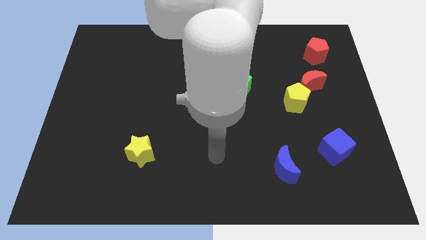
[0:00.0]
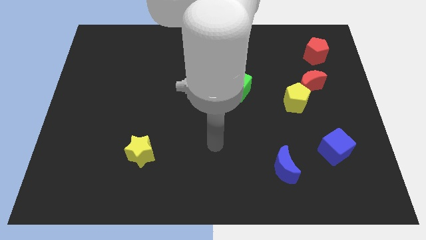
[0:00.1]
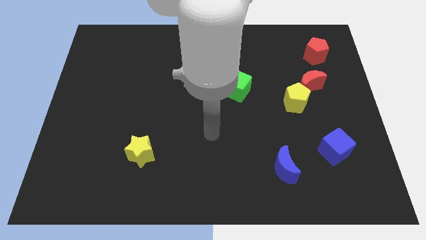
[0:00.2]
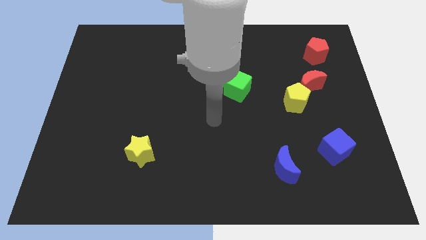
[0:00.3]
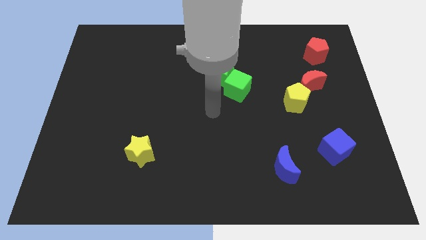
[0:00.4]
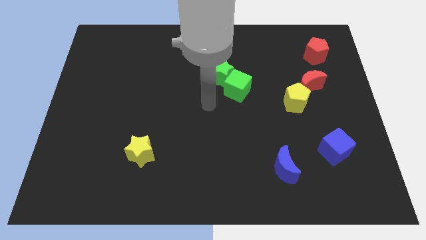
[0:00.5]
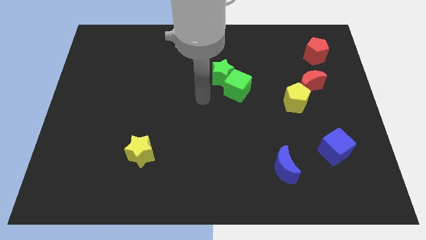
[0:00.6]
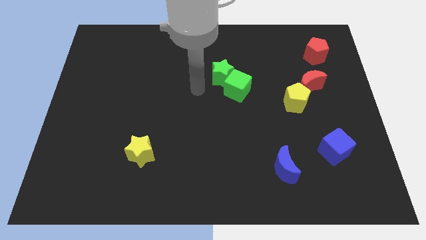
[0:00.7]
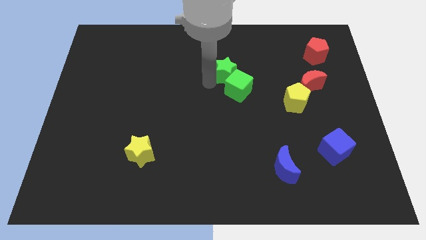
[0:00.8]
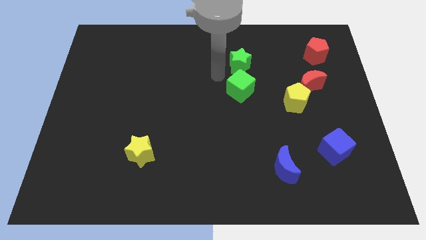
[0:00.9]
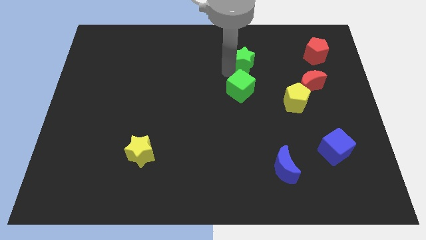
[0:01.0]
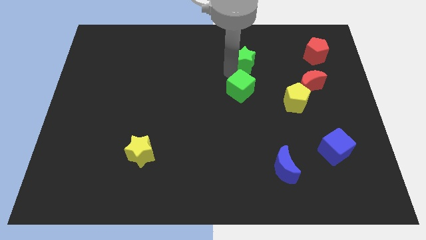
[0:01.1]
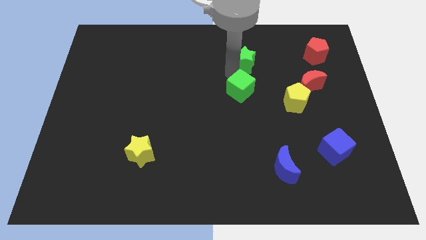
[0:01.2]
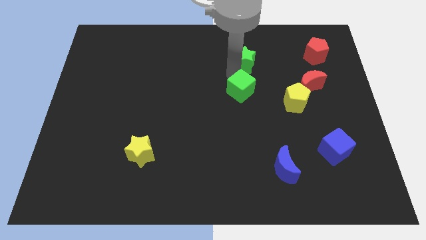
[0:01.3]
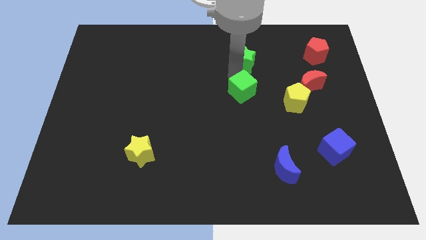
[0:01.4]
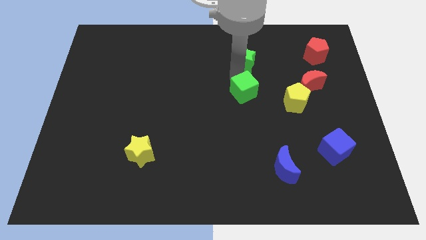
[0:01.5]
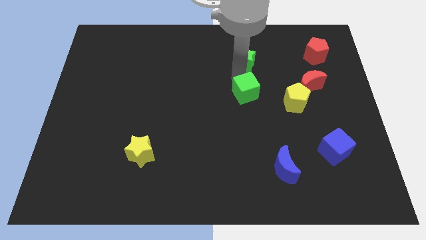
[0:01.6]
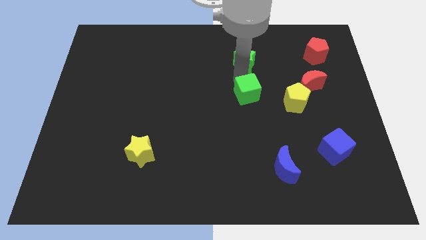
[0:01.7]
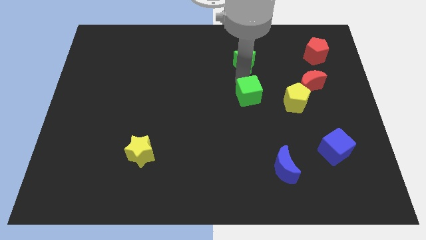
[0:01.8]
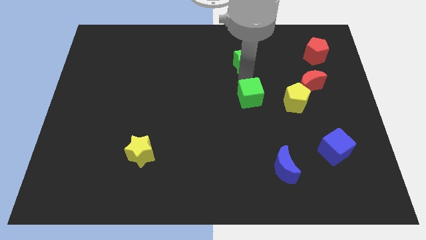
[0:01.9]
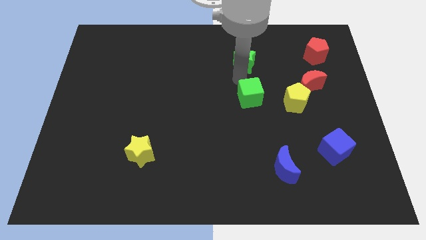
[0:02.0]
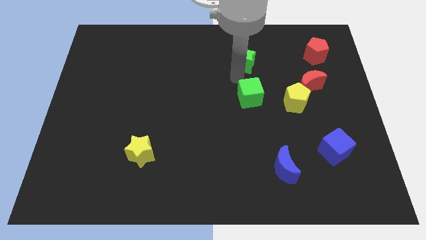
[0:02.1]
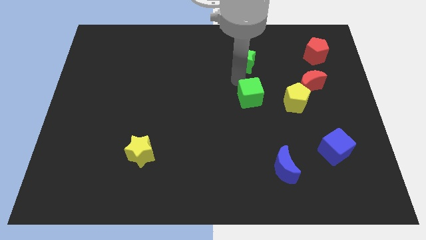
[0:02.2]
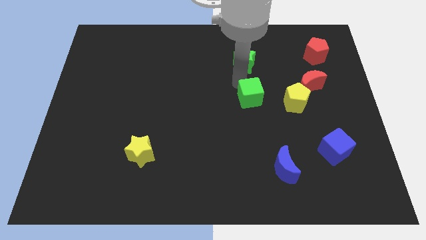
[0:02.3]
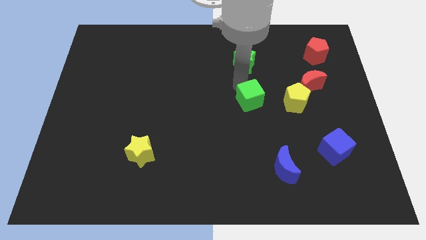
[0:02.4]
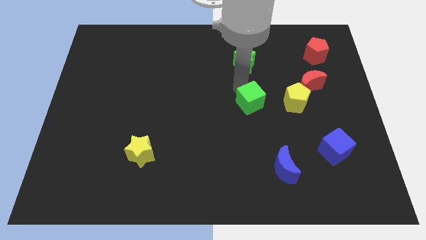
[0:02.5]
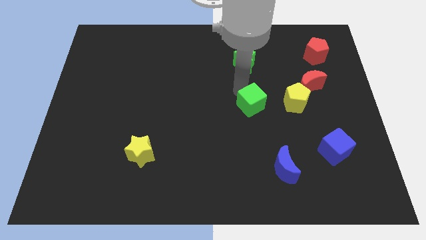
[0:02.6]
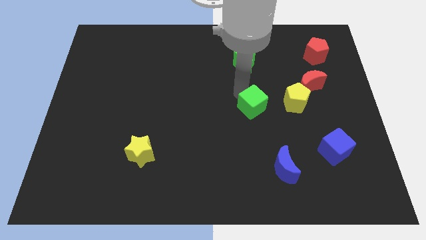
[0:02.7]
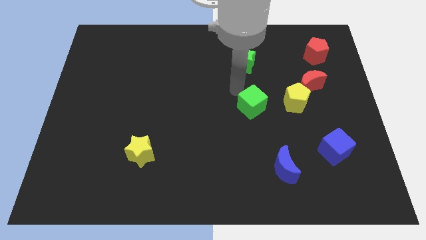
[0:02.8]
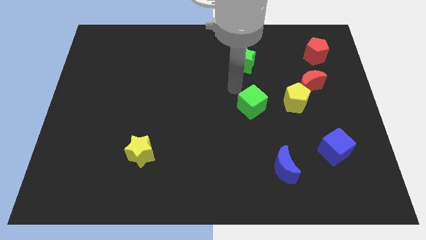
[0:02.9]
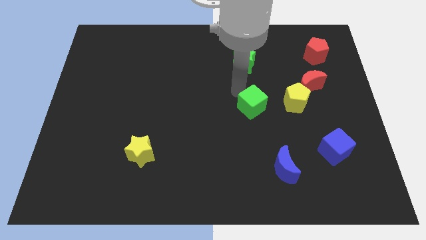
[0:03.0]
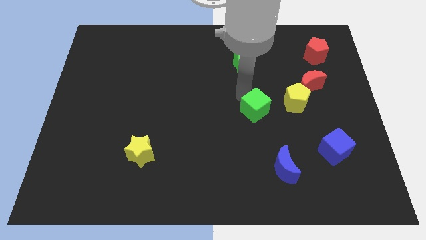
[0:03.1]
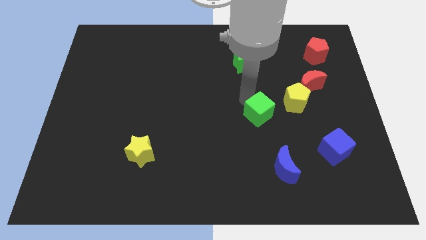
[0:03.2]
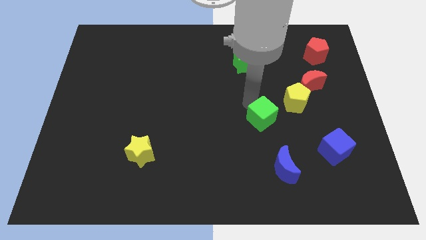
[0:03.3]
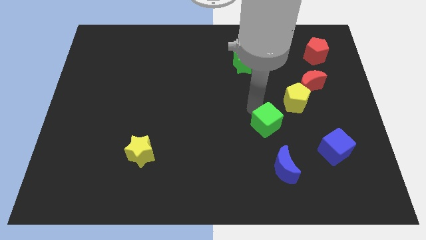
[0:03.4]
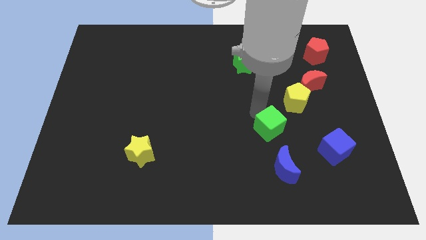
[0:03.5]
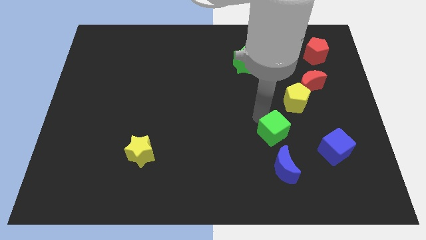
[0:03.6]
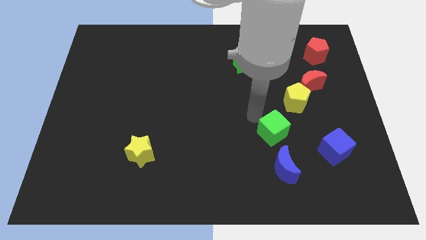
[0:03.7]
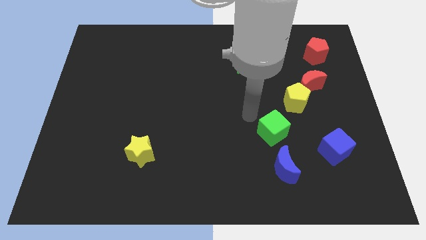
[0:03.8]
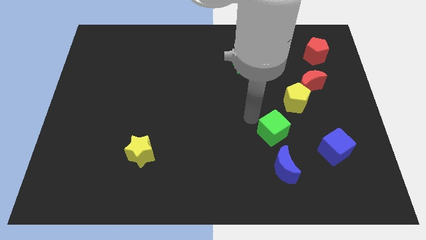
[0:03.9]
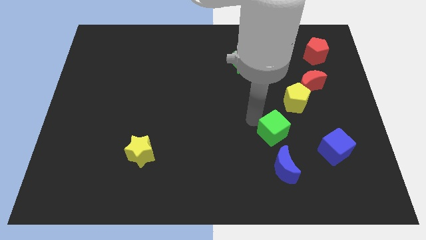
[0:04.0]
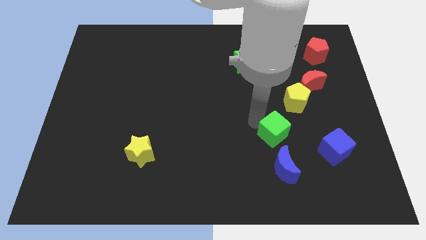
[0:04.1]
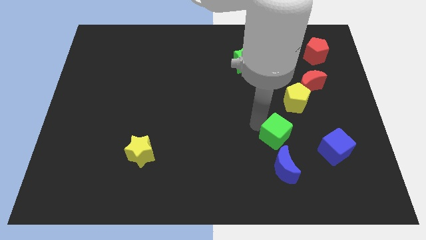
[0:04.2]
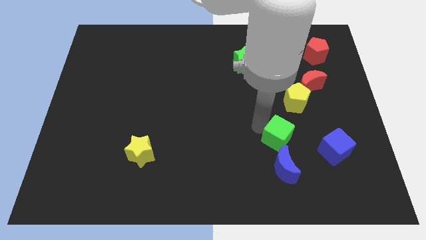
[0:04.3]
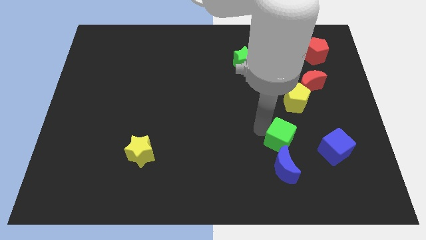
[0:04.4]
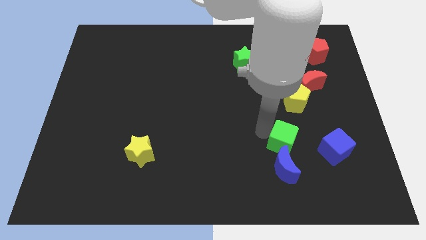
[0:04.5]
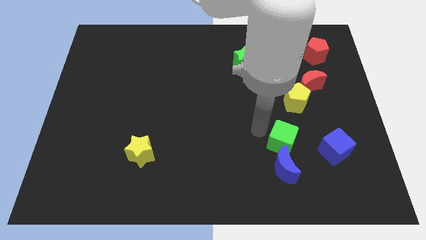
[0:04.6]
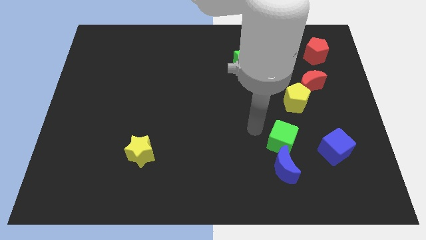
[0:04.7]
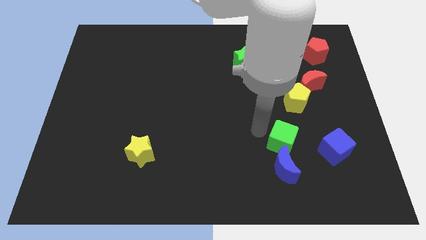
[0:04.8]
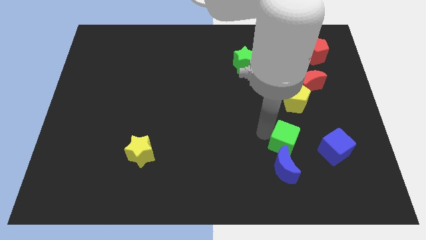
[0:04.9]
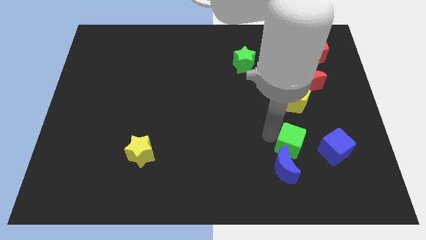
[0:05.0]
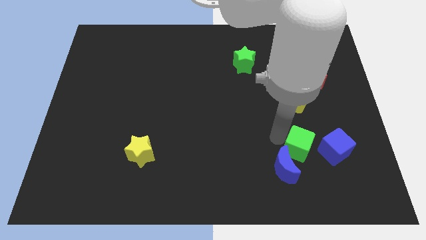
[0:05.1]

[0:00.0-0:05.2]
push the green cube diagonally down and right

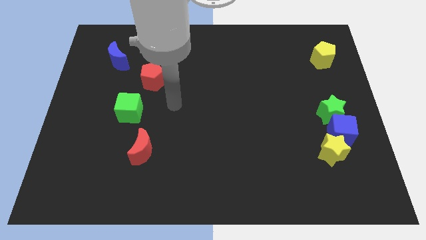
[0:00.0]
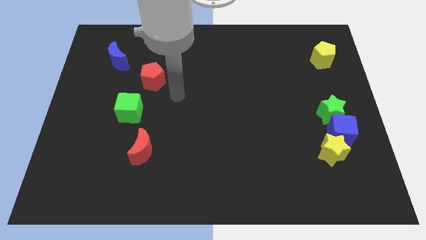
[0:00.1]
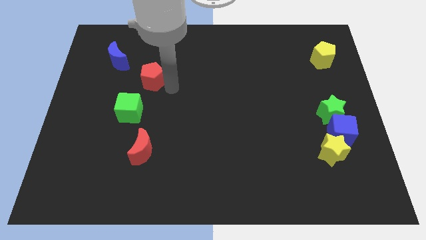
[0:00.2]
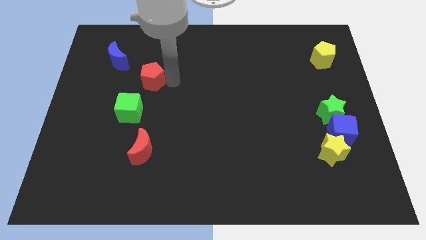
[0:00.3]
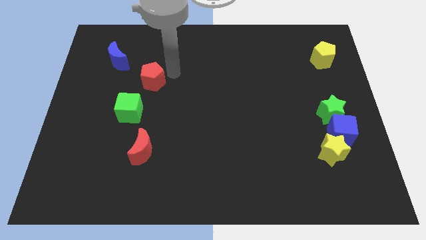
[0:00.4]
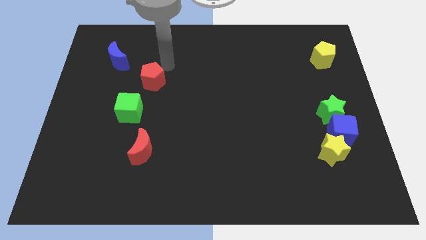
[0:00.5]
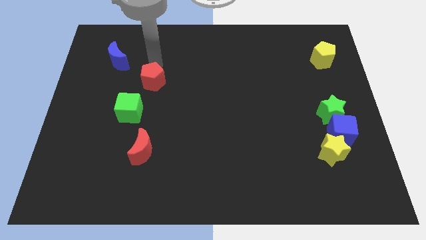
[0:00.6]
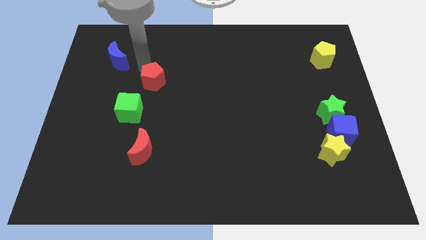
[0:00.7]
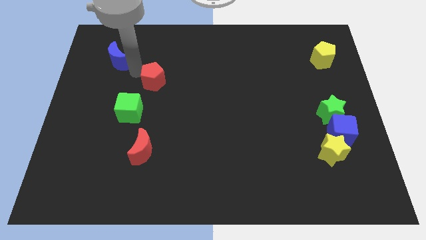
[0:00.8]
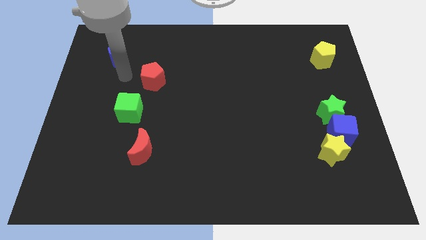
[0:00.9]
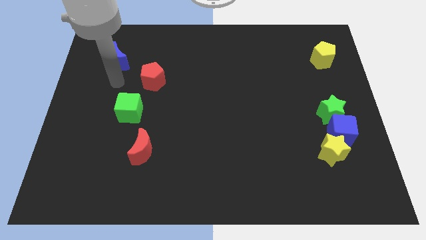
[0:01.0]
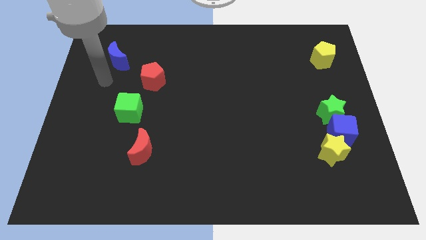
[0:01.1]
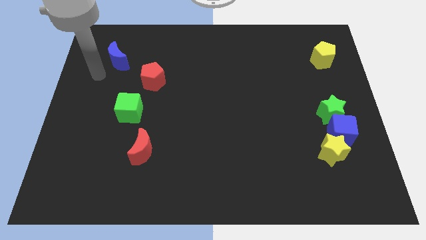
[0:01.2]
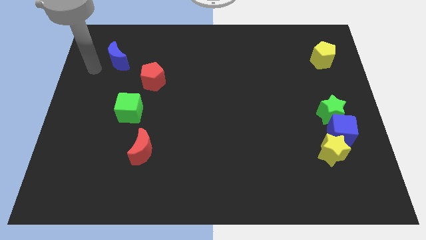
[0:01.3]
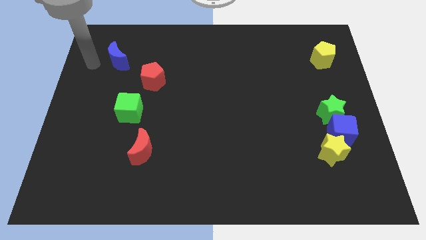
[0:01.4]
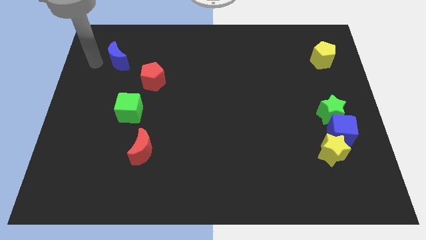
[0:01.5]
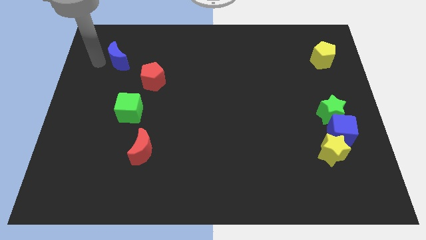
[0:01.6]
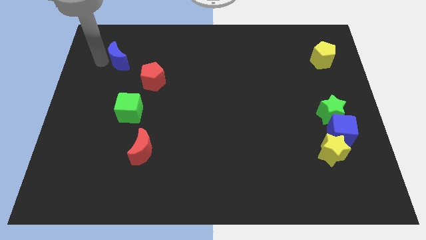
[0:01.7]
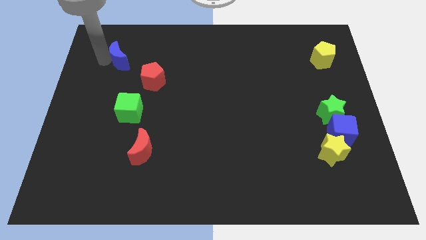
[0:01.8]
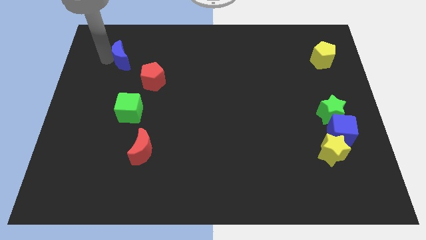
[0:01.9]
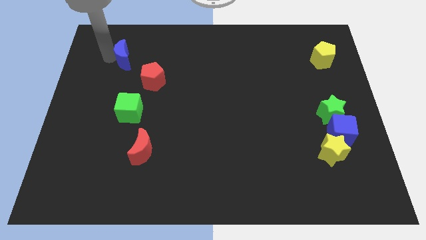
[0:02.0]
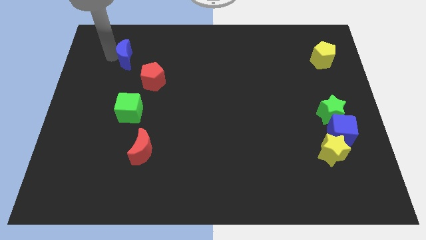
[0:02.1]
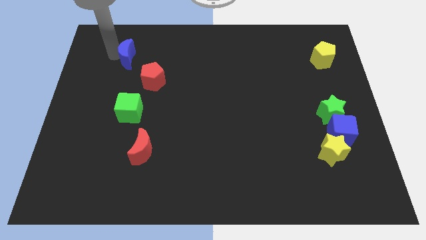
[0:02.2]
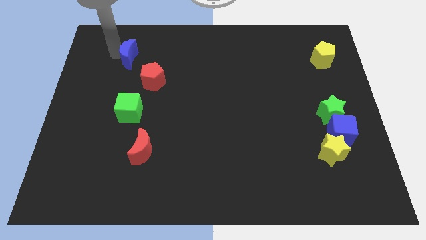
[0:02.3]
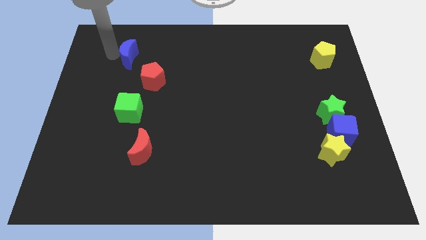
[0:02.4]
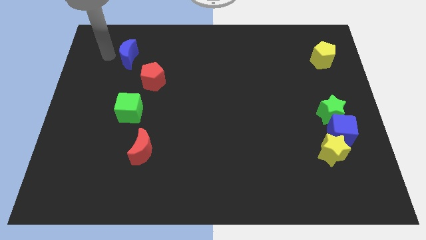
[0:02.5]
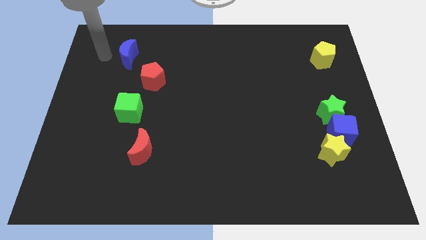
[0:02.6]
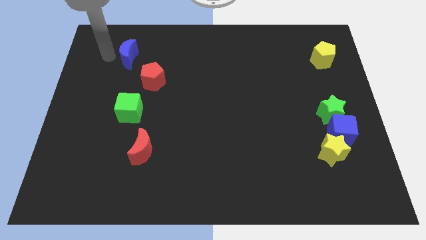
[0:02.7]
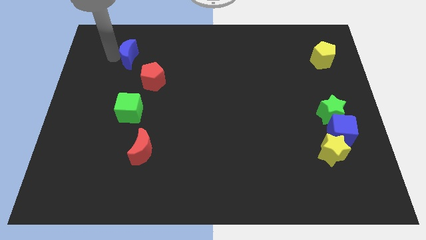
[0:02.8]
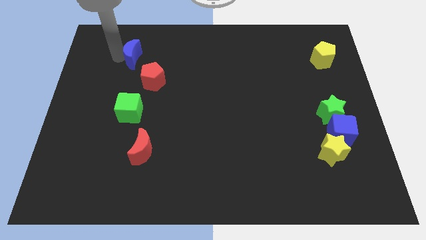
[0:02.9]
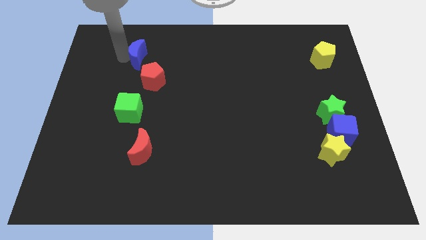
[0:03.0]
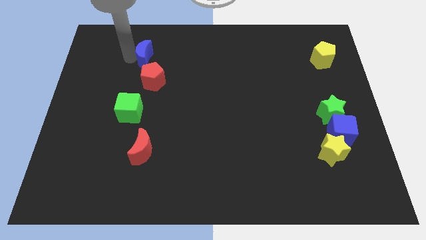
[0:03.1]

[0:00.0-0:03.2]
slide the blue moon a bit right

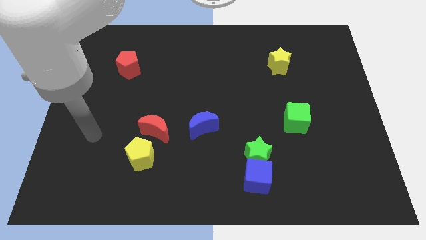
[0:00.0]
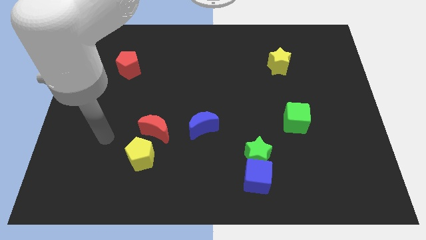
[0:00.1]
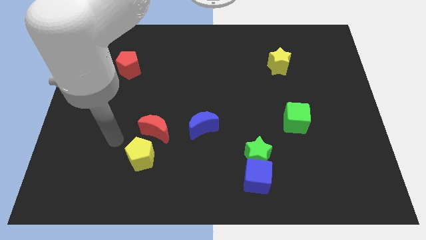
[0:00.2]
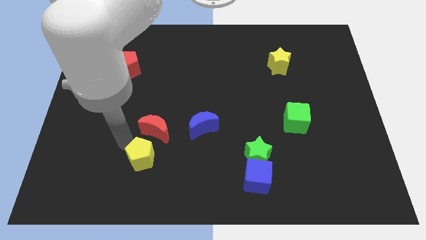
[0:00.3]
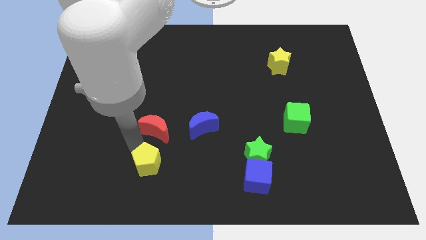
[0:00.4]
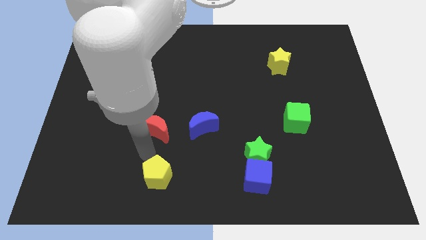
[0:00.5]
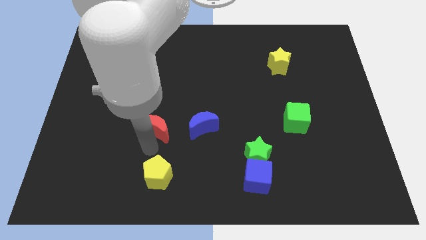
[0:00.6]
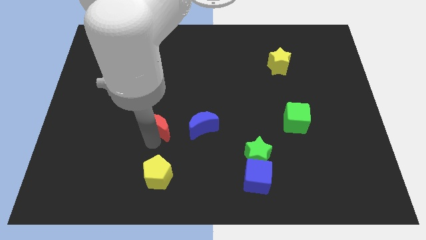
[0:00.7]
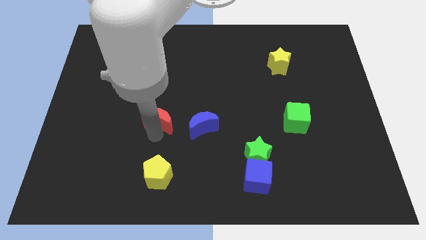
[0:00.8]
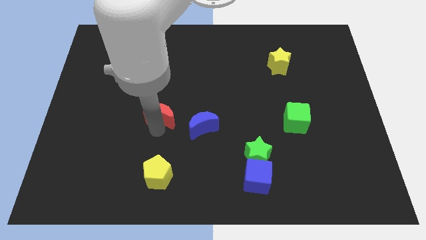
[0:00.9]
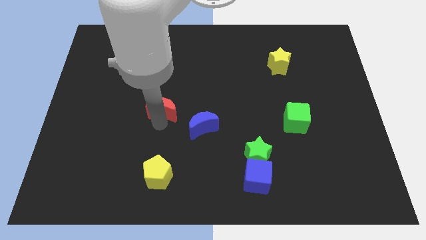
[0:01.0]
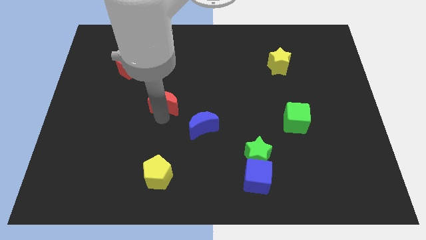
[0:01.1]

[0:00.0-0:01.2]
push the red moon a bit upwards
